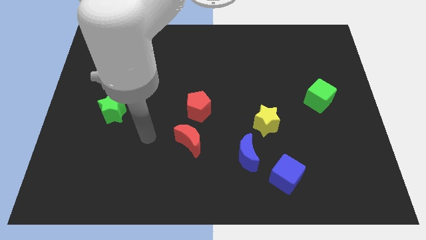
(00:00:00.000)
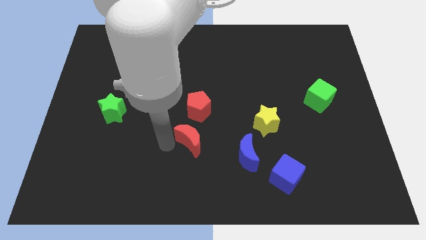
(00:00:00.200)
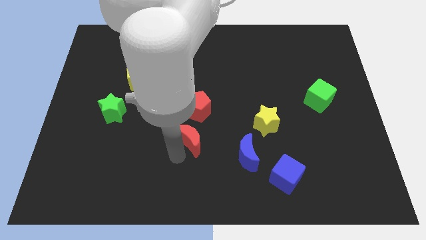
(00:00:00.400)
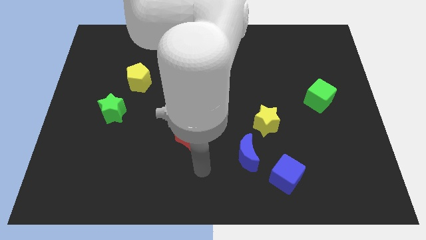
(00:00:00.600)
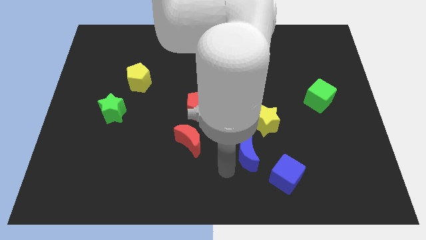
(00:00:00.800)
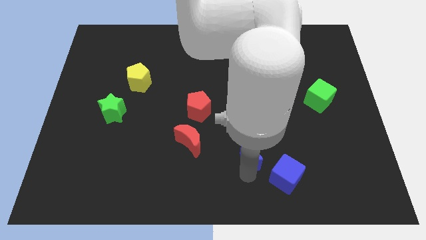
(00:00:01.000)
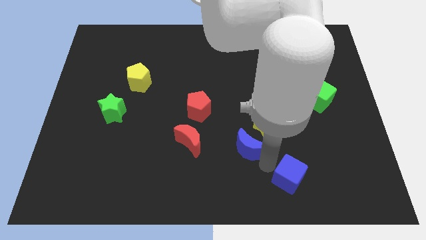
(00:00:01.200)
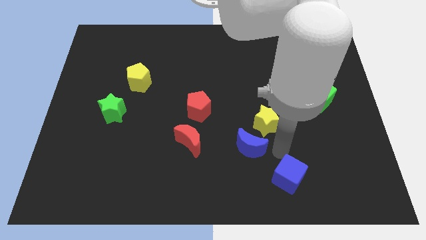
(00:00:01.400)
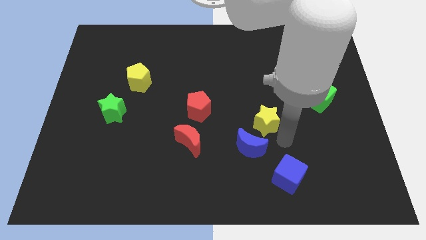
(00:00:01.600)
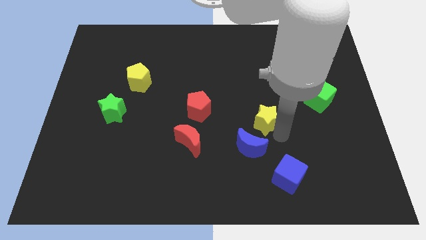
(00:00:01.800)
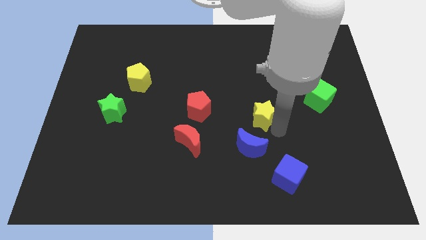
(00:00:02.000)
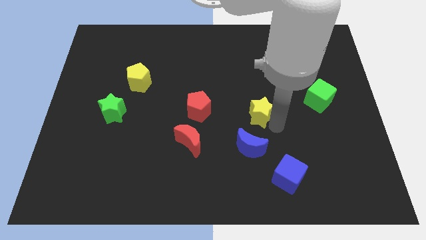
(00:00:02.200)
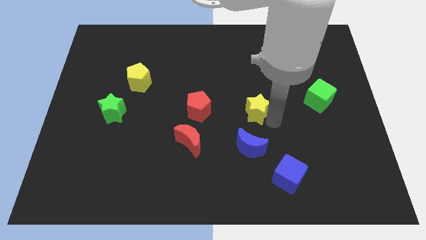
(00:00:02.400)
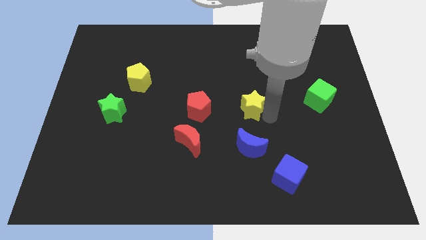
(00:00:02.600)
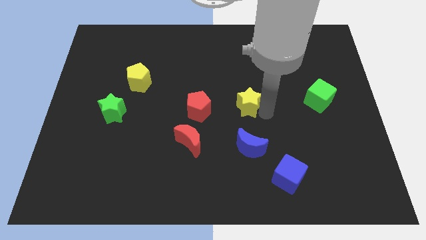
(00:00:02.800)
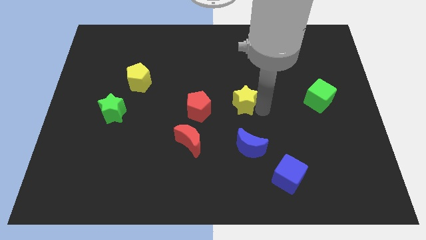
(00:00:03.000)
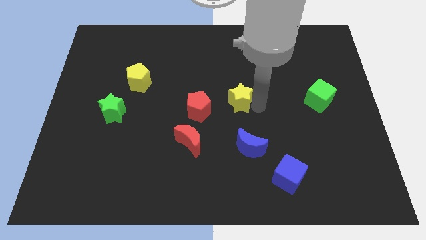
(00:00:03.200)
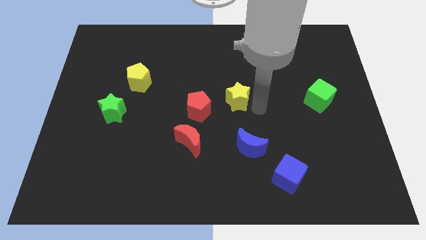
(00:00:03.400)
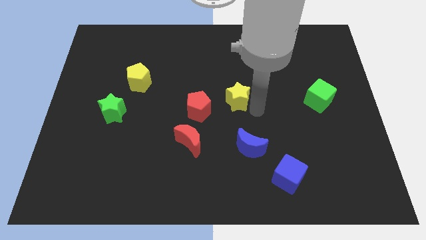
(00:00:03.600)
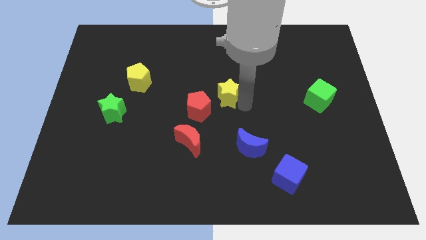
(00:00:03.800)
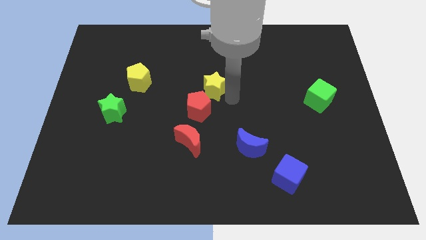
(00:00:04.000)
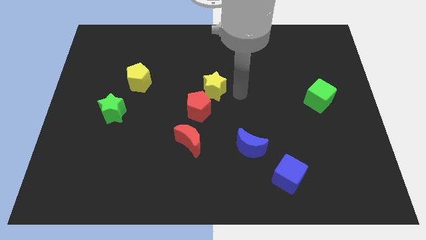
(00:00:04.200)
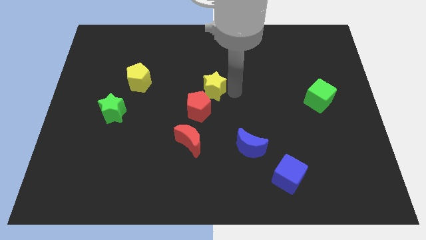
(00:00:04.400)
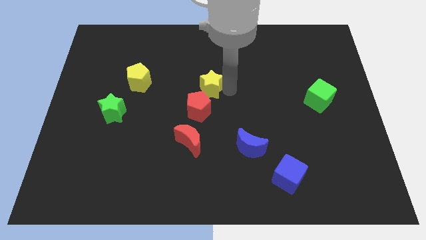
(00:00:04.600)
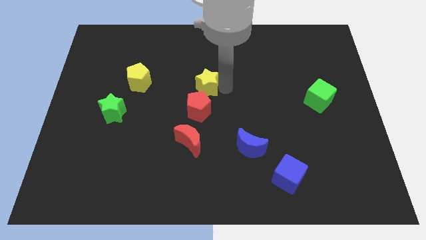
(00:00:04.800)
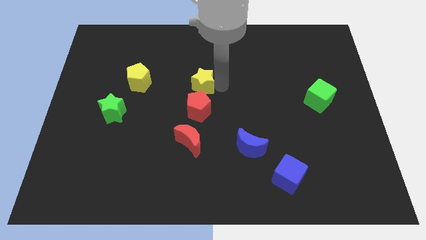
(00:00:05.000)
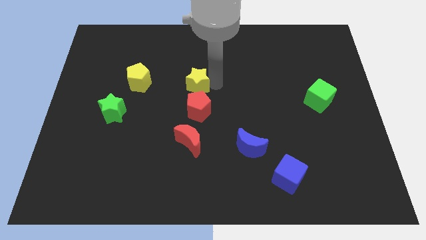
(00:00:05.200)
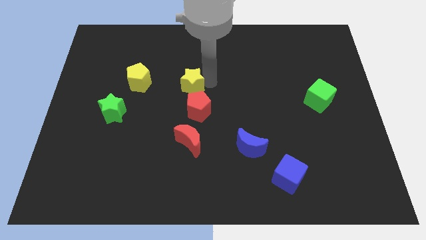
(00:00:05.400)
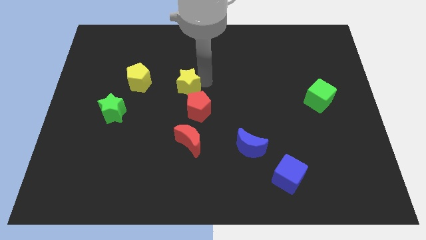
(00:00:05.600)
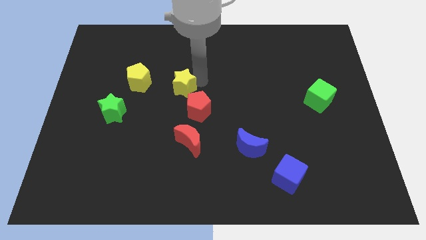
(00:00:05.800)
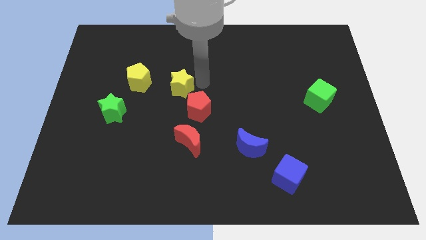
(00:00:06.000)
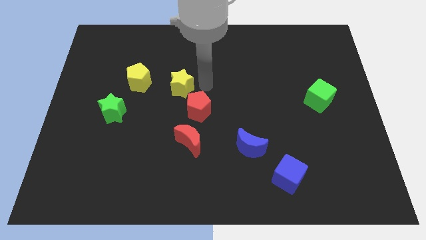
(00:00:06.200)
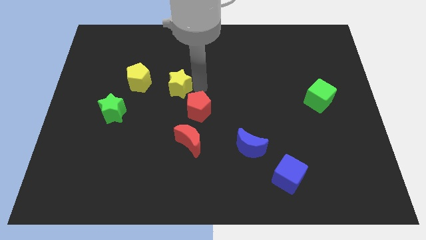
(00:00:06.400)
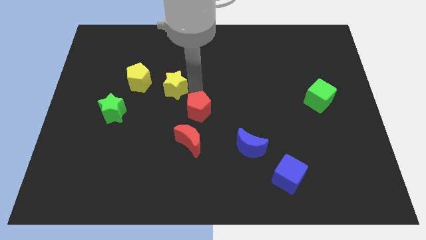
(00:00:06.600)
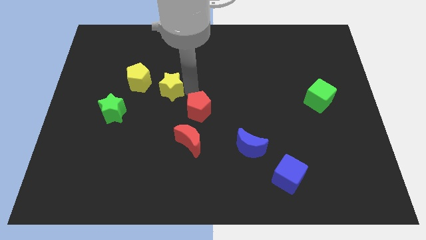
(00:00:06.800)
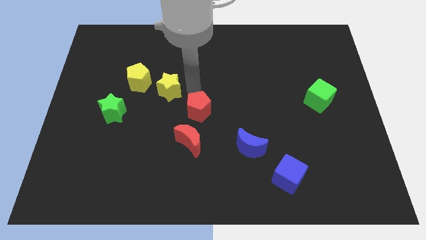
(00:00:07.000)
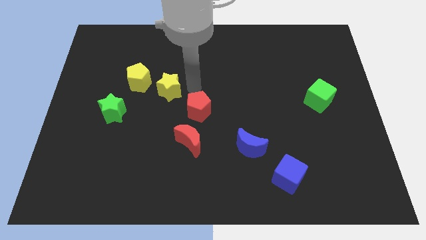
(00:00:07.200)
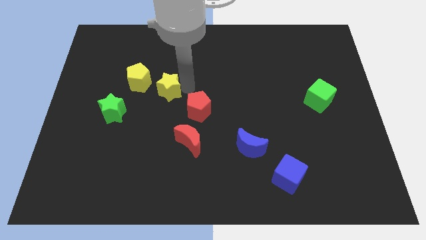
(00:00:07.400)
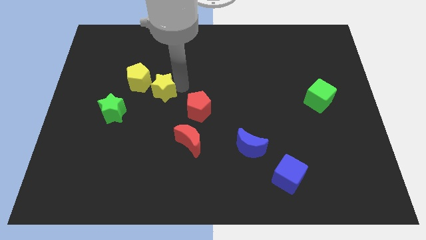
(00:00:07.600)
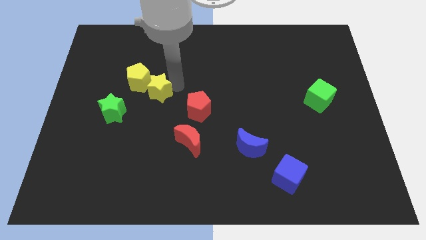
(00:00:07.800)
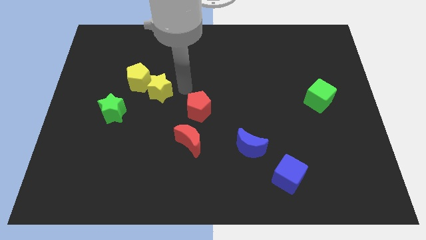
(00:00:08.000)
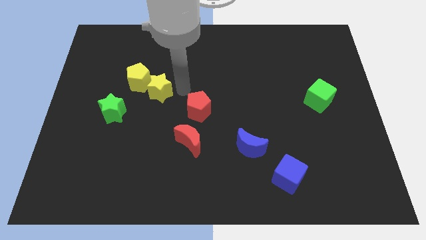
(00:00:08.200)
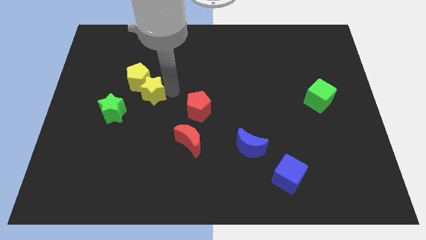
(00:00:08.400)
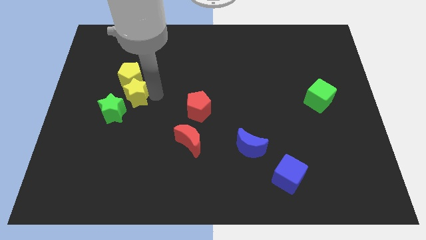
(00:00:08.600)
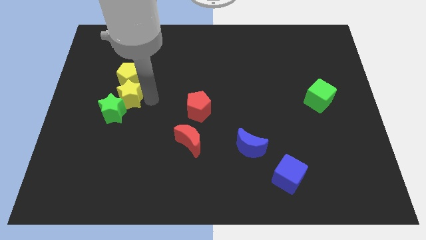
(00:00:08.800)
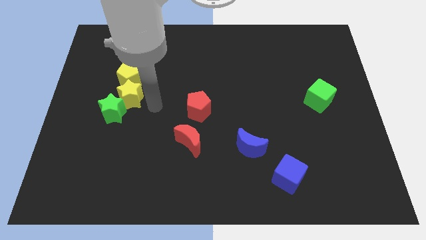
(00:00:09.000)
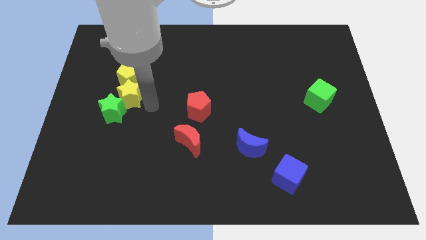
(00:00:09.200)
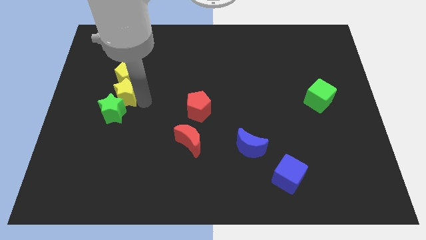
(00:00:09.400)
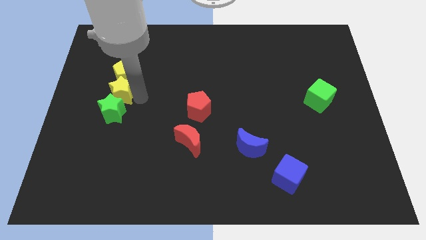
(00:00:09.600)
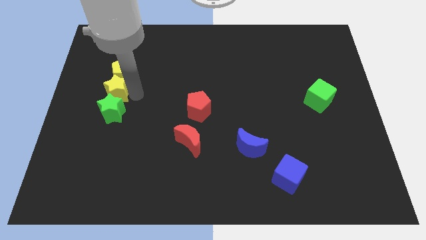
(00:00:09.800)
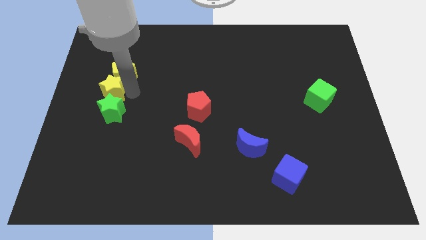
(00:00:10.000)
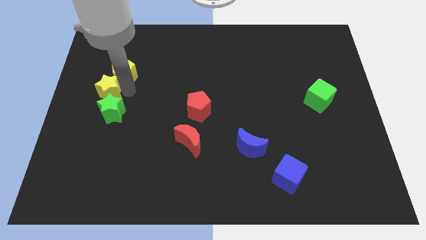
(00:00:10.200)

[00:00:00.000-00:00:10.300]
move the yellow star to the left side of the board
